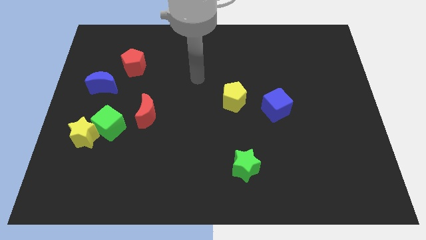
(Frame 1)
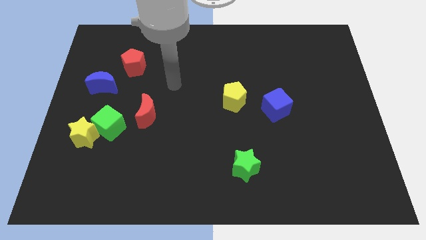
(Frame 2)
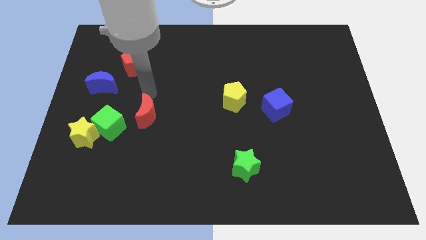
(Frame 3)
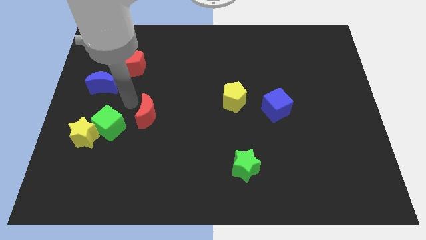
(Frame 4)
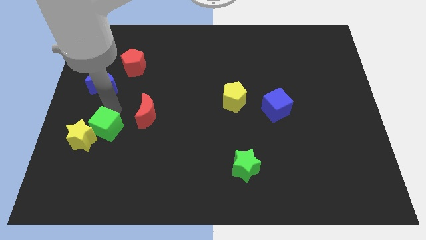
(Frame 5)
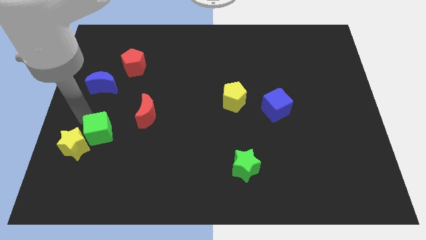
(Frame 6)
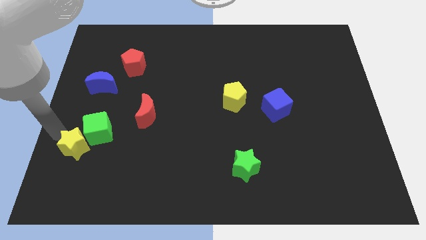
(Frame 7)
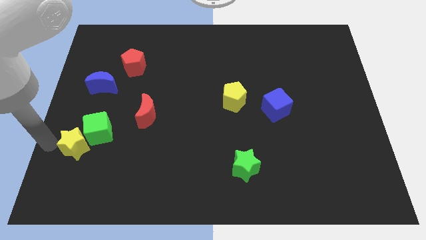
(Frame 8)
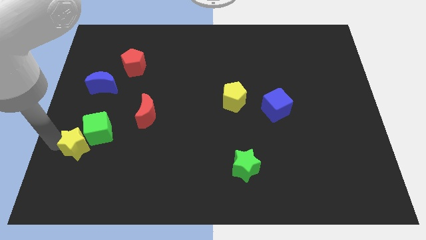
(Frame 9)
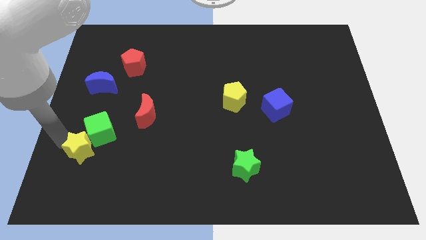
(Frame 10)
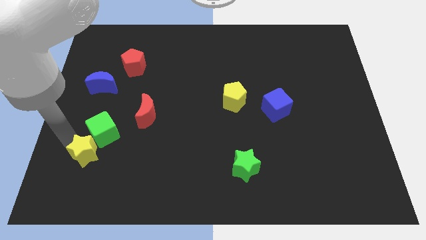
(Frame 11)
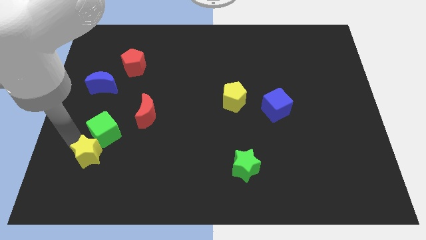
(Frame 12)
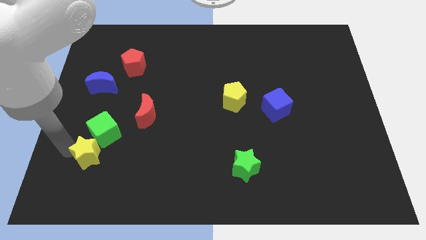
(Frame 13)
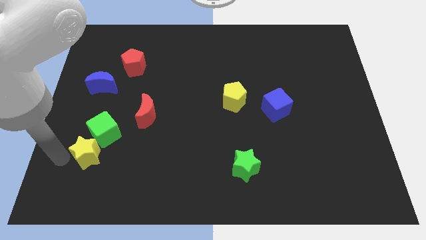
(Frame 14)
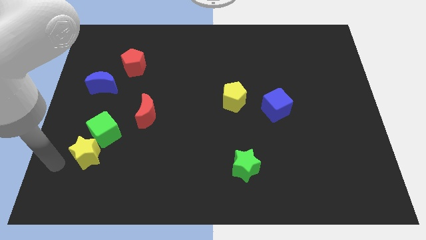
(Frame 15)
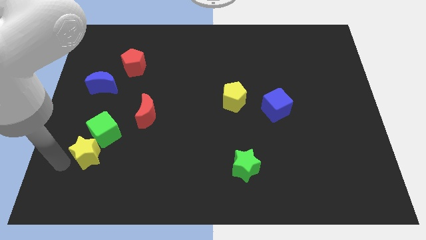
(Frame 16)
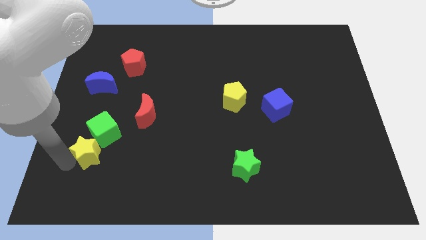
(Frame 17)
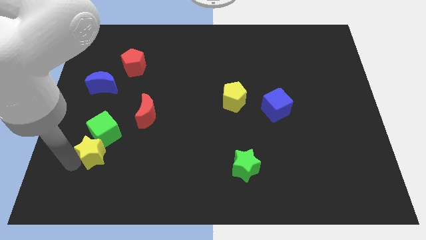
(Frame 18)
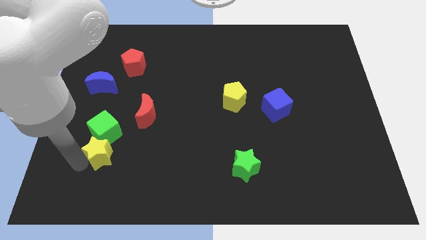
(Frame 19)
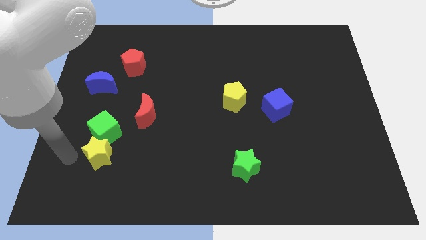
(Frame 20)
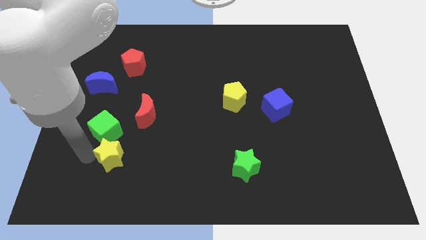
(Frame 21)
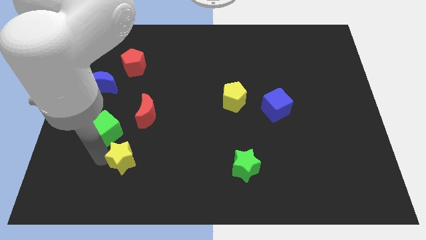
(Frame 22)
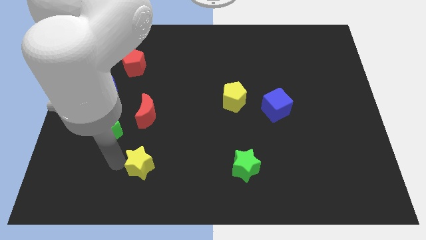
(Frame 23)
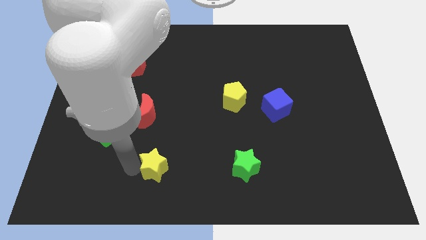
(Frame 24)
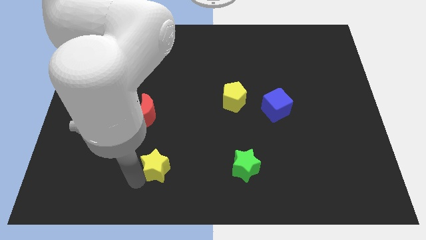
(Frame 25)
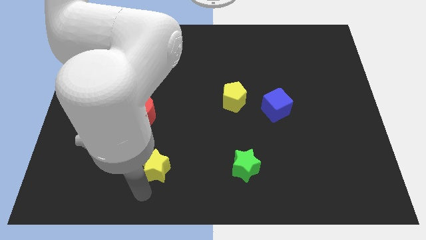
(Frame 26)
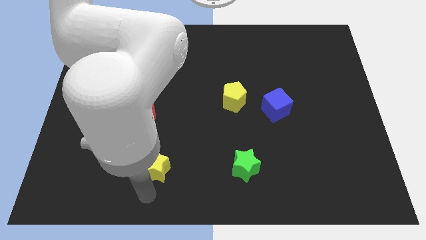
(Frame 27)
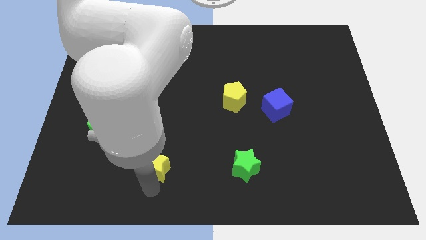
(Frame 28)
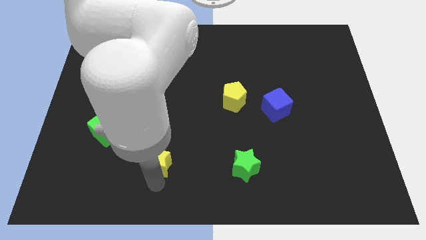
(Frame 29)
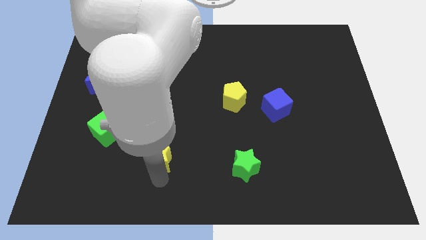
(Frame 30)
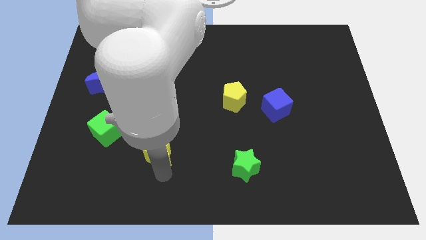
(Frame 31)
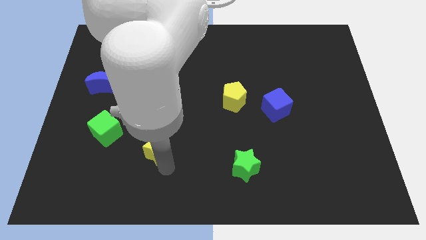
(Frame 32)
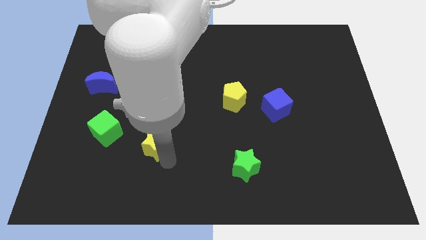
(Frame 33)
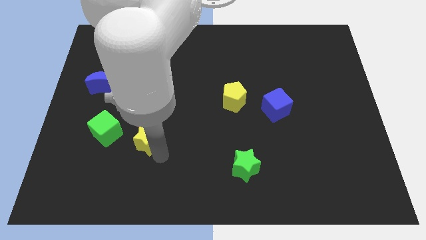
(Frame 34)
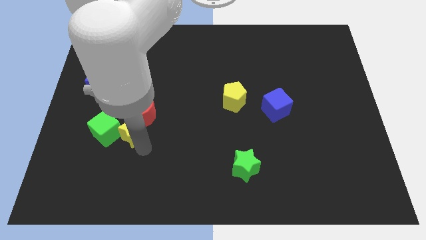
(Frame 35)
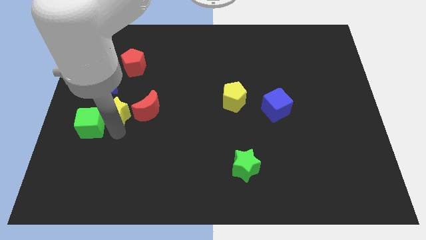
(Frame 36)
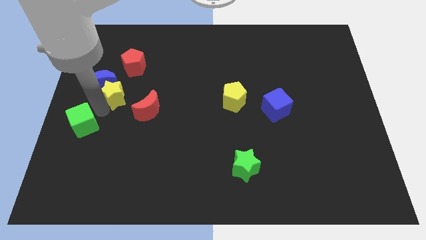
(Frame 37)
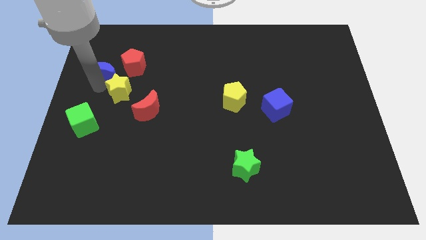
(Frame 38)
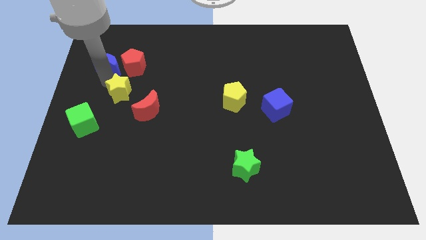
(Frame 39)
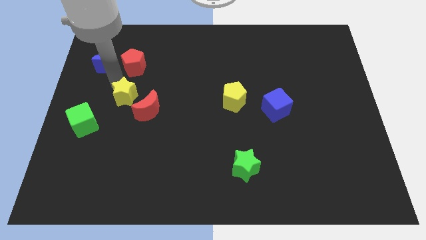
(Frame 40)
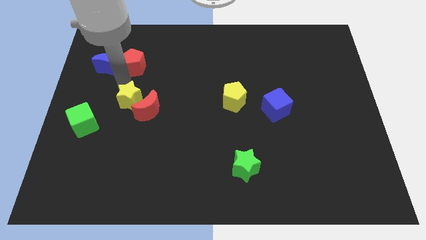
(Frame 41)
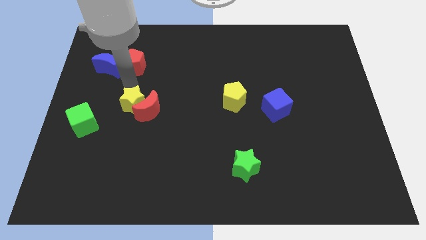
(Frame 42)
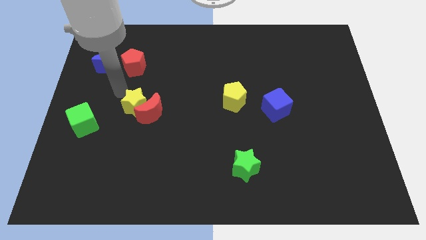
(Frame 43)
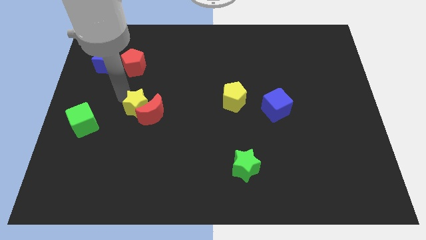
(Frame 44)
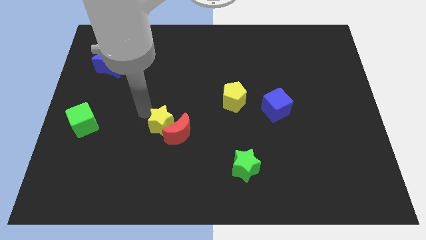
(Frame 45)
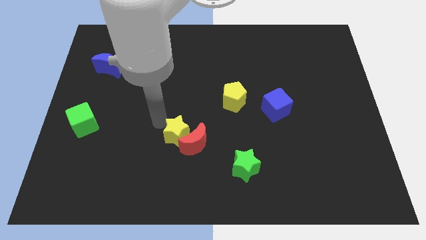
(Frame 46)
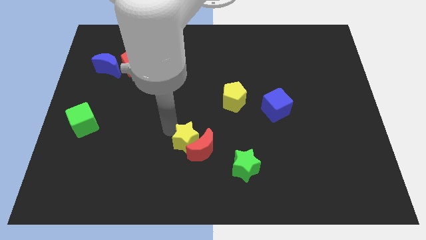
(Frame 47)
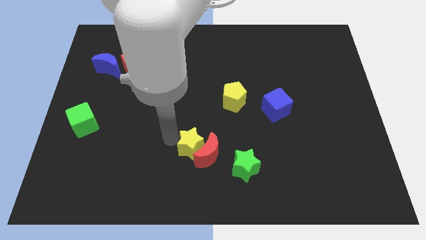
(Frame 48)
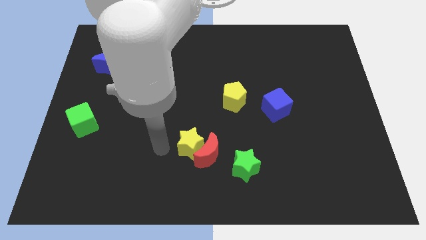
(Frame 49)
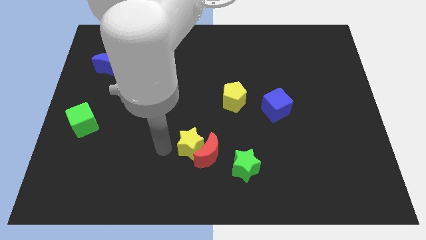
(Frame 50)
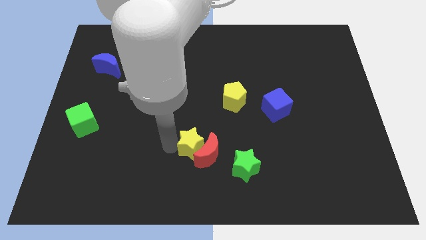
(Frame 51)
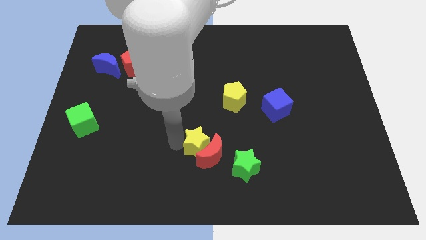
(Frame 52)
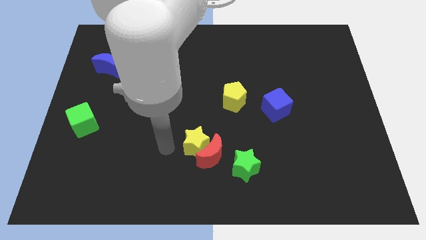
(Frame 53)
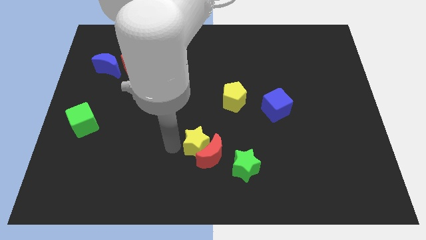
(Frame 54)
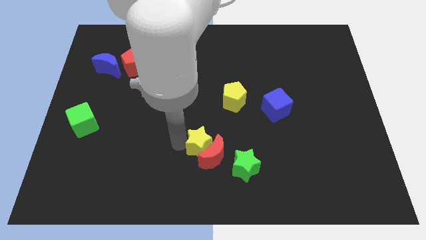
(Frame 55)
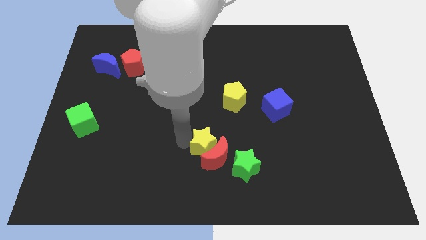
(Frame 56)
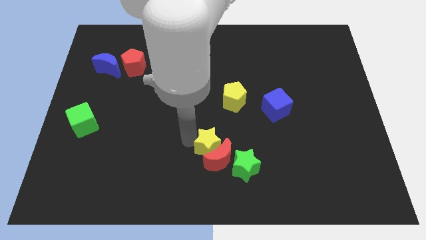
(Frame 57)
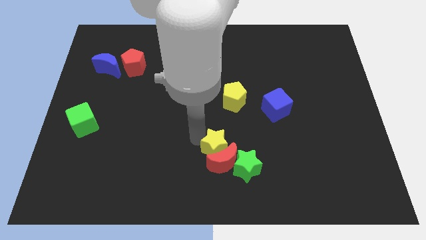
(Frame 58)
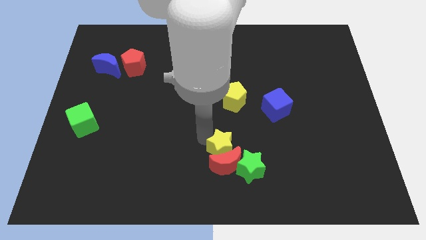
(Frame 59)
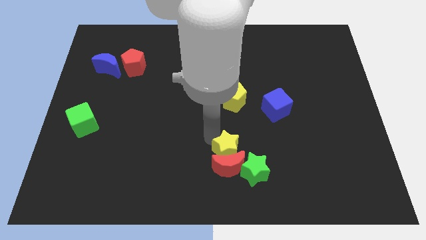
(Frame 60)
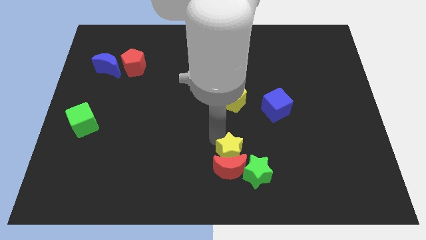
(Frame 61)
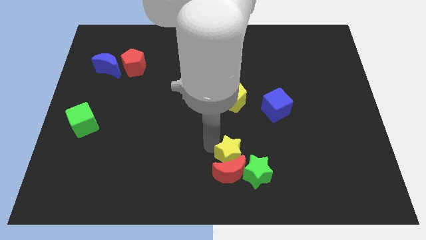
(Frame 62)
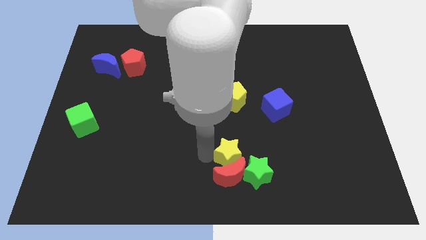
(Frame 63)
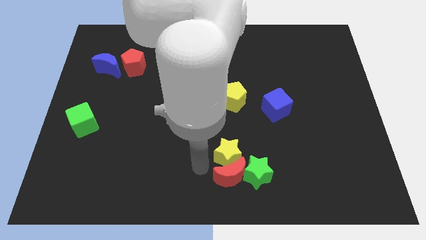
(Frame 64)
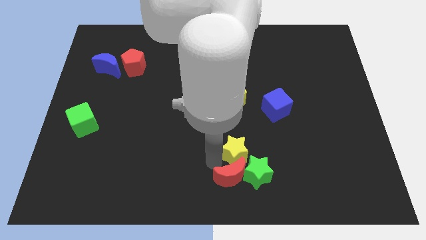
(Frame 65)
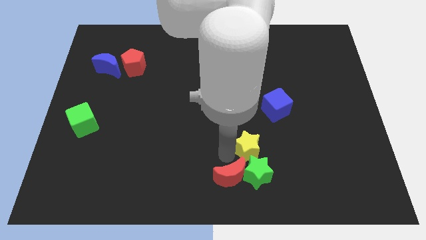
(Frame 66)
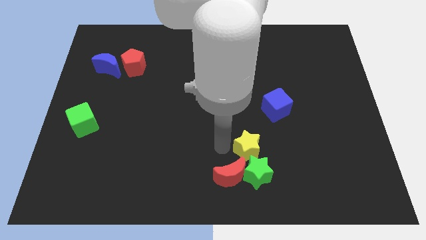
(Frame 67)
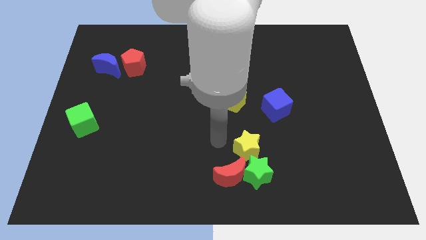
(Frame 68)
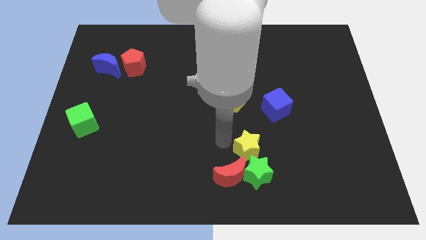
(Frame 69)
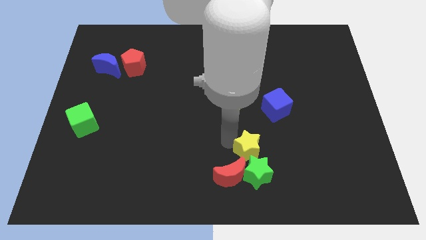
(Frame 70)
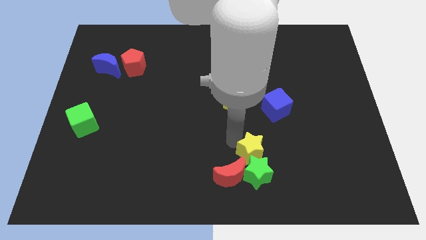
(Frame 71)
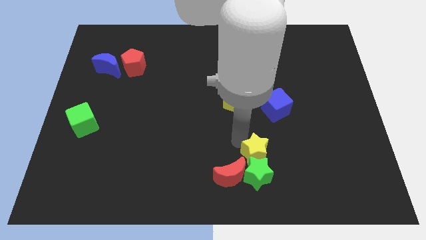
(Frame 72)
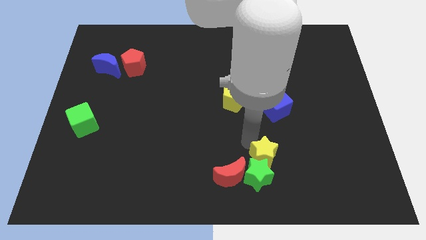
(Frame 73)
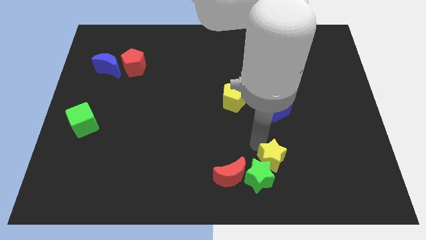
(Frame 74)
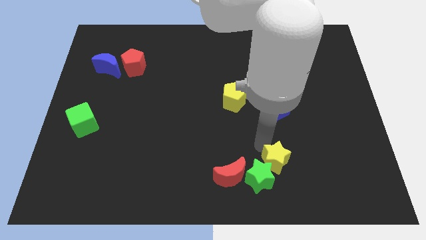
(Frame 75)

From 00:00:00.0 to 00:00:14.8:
move the yellow star right of the green star
